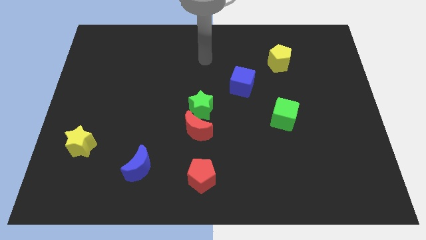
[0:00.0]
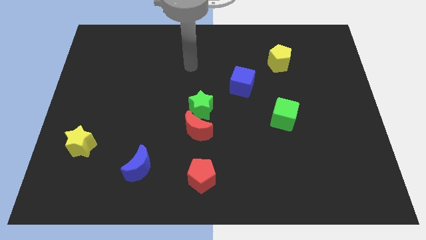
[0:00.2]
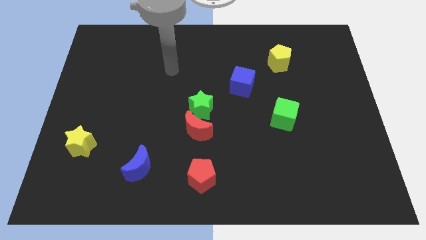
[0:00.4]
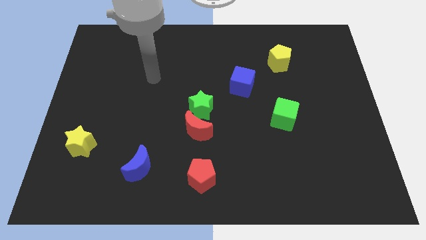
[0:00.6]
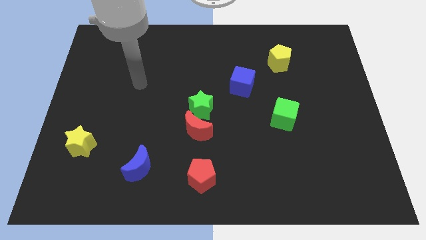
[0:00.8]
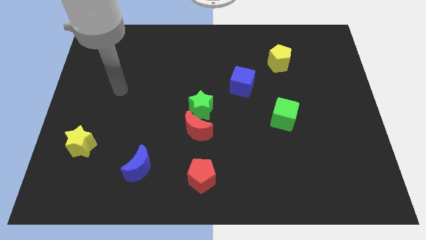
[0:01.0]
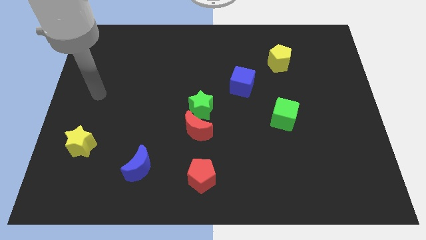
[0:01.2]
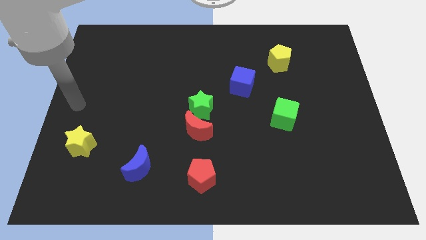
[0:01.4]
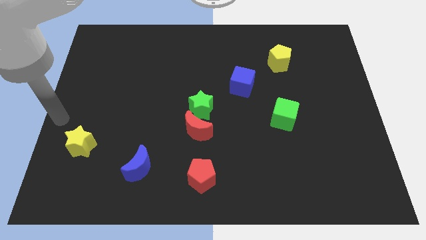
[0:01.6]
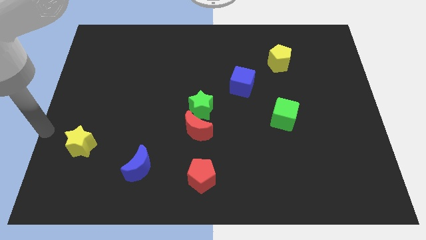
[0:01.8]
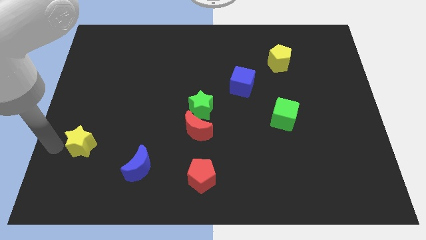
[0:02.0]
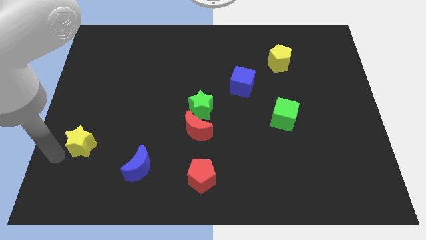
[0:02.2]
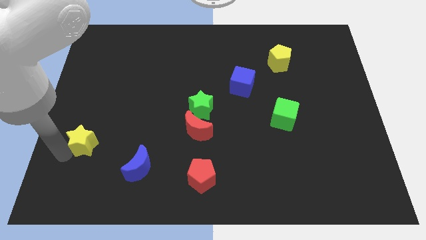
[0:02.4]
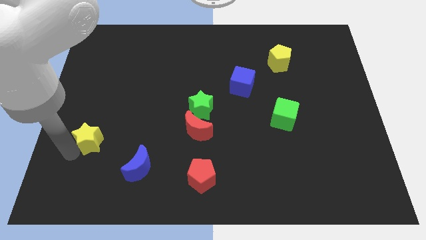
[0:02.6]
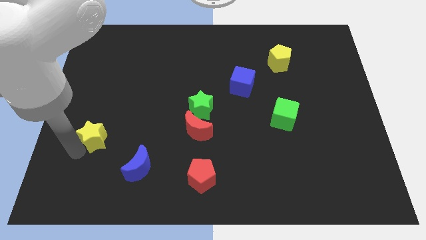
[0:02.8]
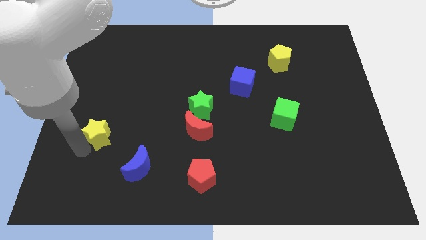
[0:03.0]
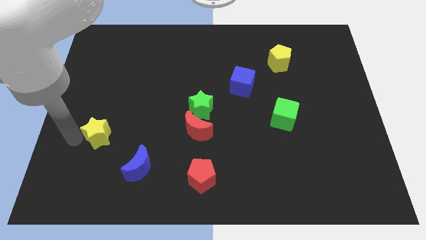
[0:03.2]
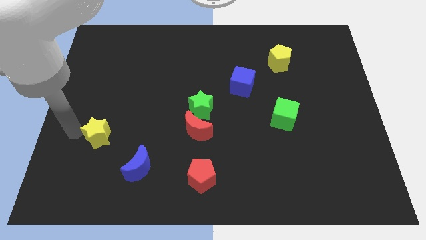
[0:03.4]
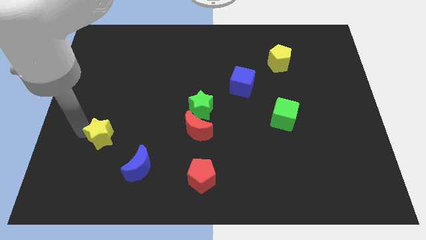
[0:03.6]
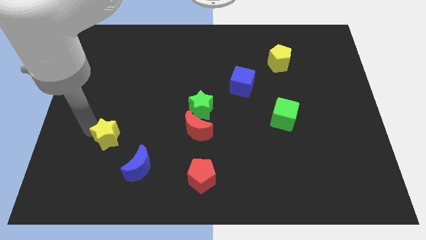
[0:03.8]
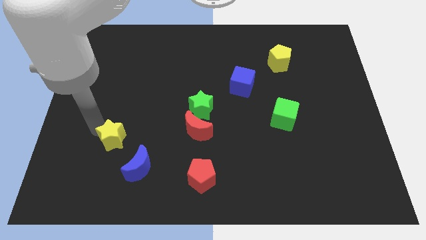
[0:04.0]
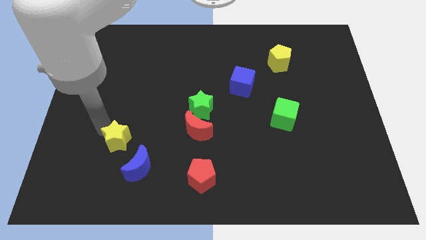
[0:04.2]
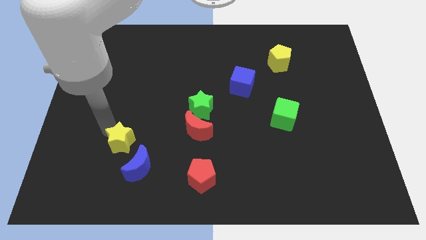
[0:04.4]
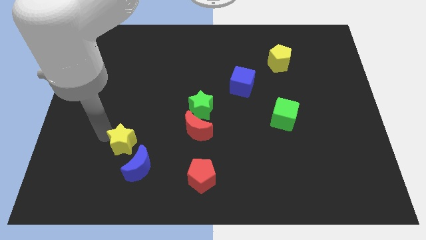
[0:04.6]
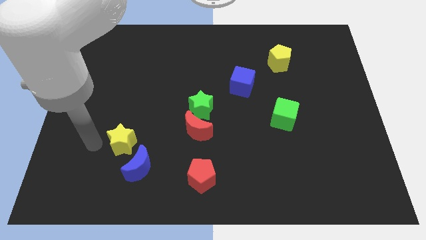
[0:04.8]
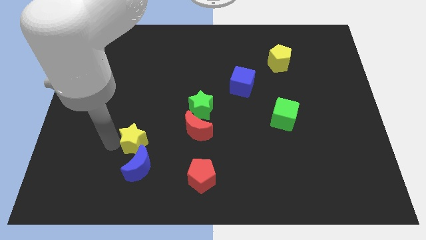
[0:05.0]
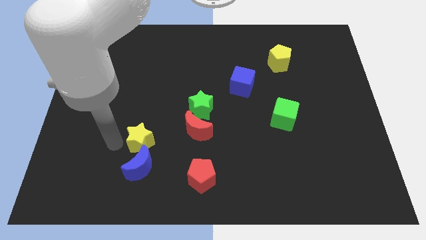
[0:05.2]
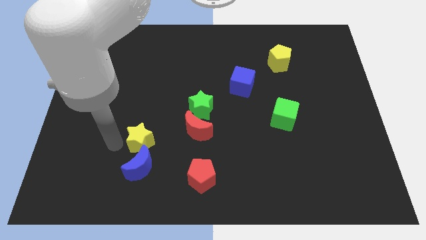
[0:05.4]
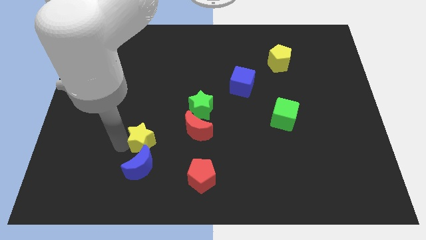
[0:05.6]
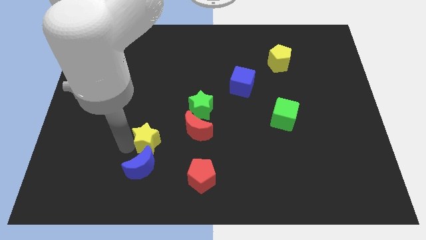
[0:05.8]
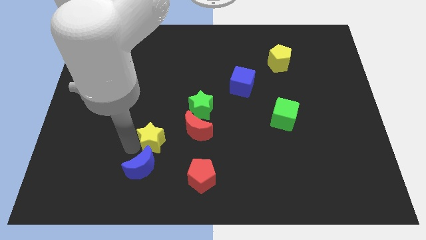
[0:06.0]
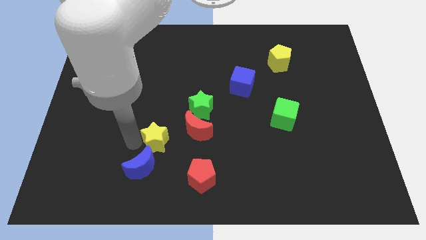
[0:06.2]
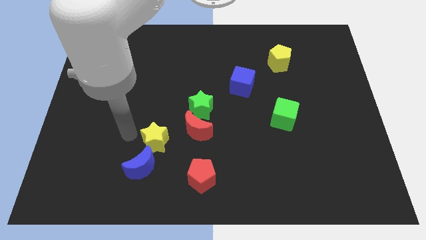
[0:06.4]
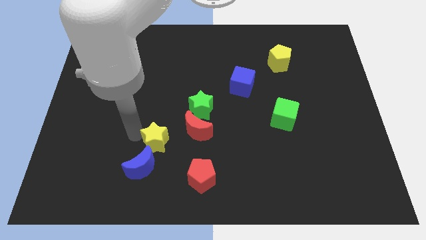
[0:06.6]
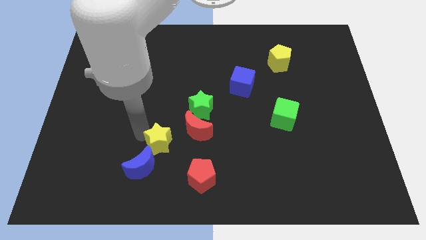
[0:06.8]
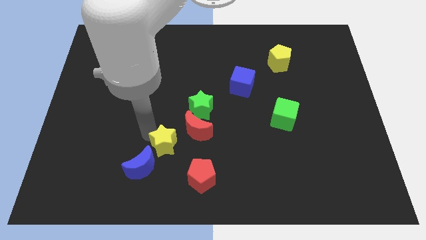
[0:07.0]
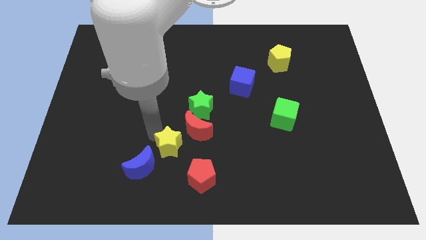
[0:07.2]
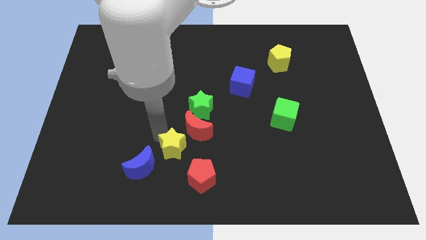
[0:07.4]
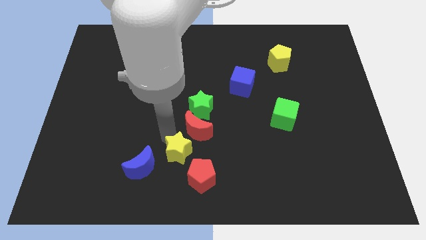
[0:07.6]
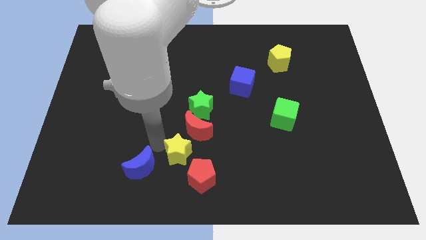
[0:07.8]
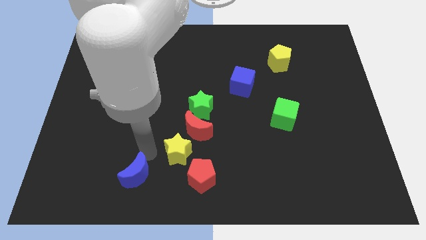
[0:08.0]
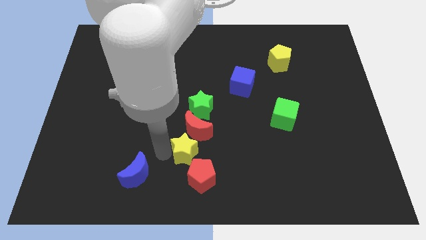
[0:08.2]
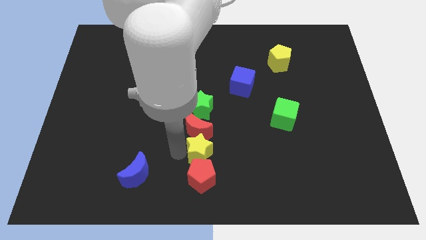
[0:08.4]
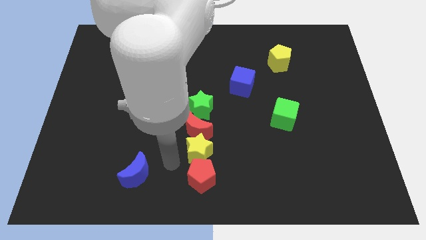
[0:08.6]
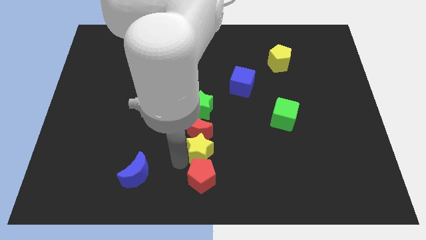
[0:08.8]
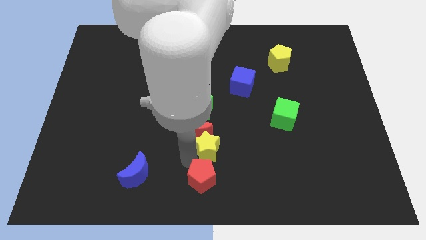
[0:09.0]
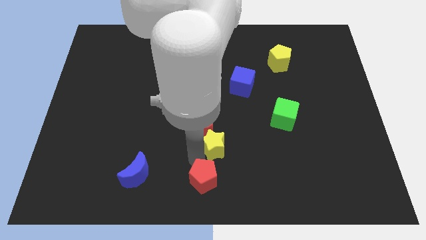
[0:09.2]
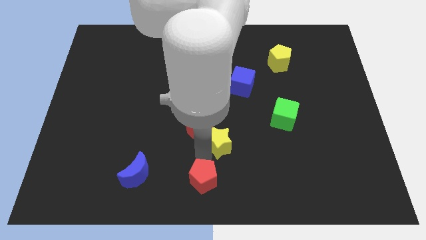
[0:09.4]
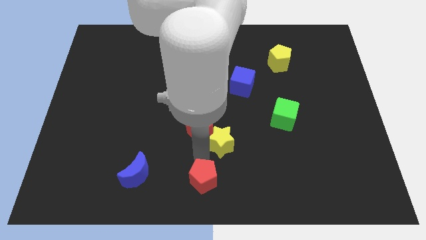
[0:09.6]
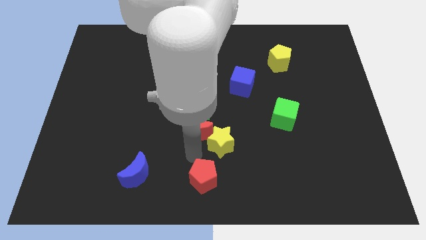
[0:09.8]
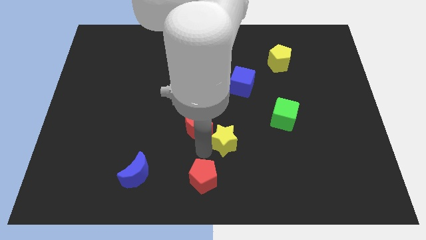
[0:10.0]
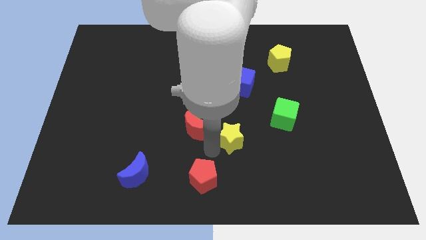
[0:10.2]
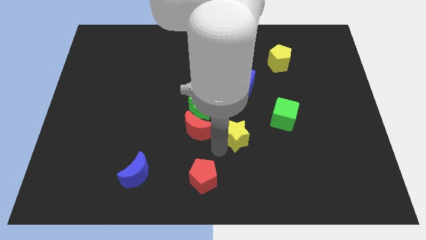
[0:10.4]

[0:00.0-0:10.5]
put the yellow star to the bottom side of the blue cube

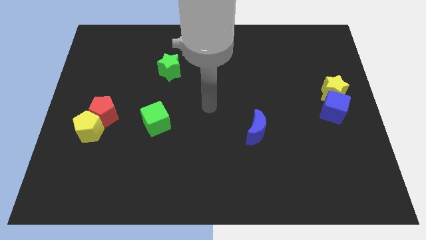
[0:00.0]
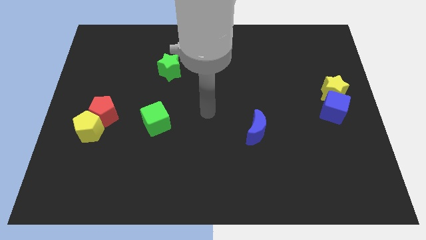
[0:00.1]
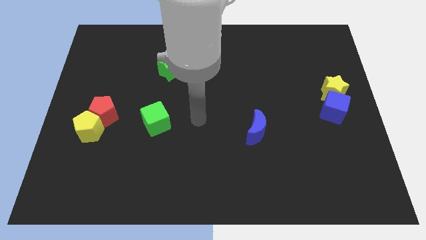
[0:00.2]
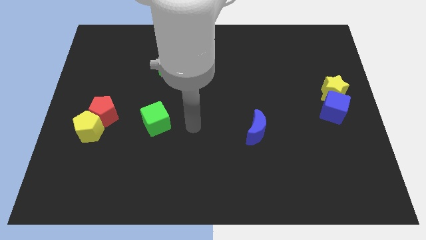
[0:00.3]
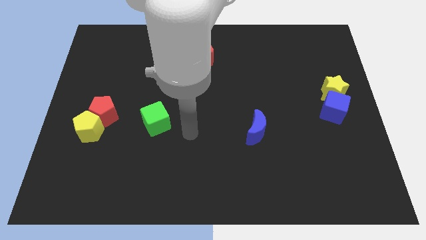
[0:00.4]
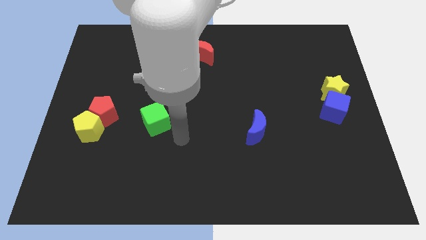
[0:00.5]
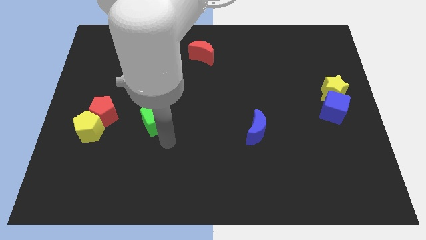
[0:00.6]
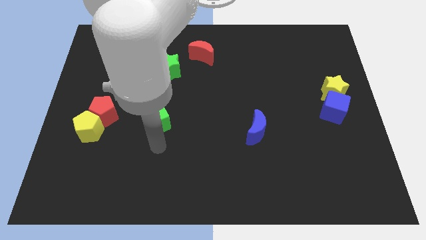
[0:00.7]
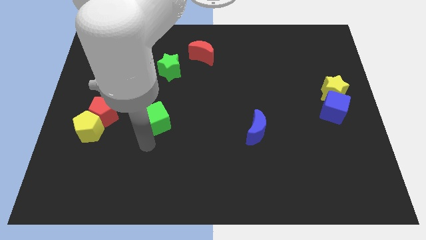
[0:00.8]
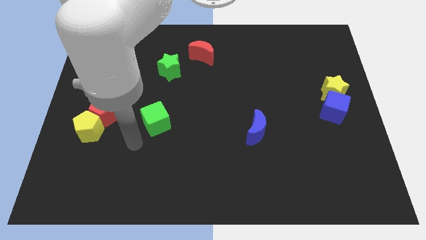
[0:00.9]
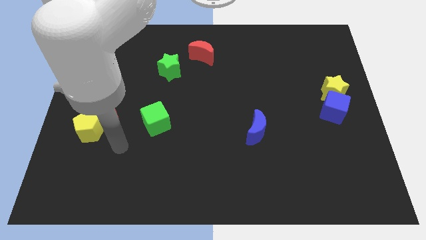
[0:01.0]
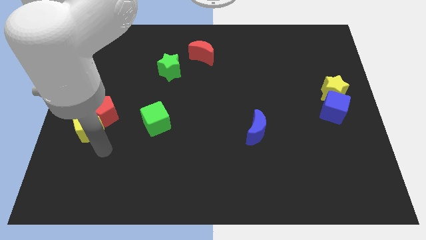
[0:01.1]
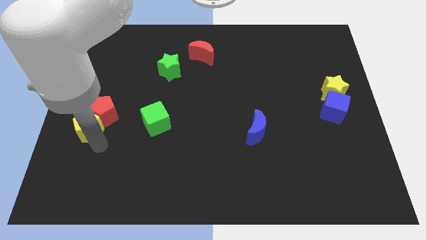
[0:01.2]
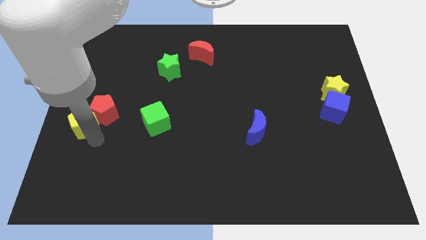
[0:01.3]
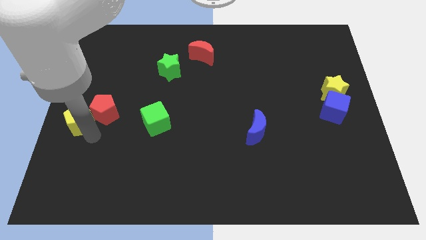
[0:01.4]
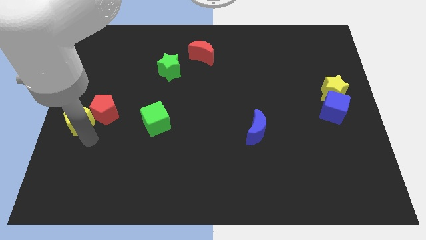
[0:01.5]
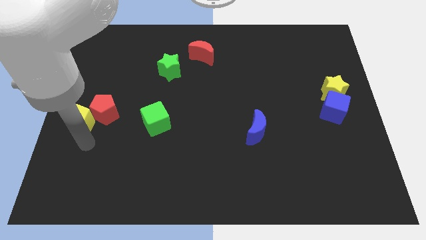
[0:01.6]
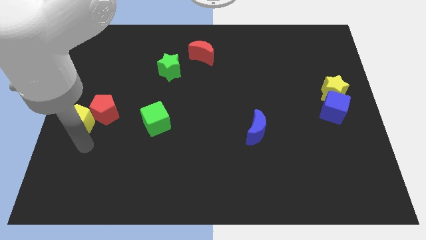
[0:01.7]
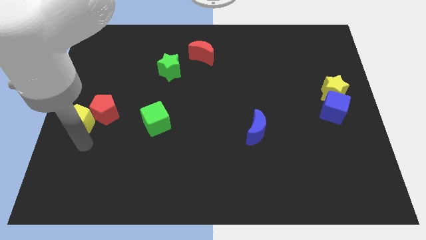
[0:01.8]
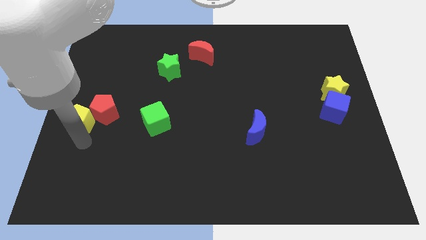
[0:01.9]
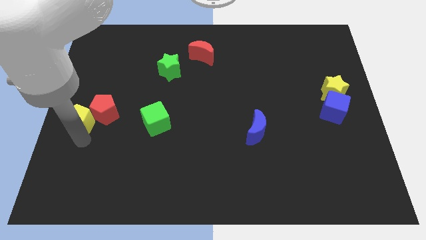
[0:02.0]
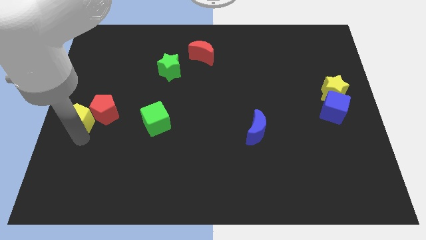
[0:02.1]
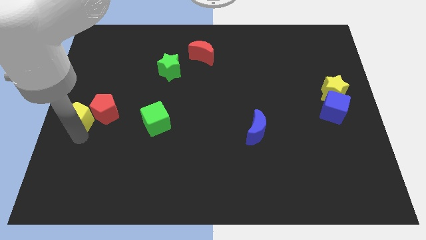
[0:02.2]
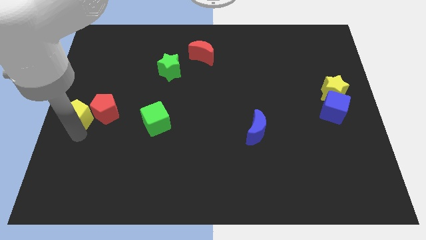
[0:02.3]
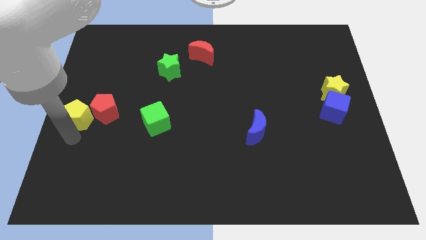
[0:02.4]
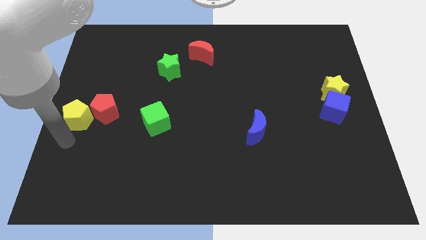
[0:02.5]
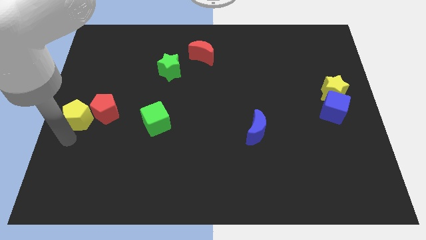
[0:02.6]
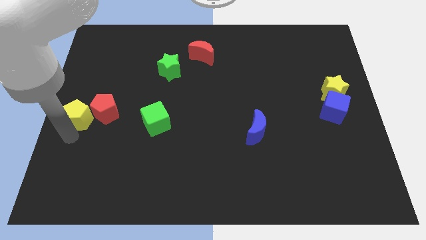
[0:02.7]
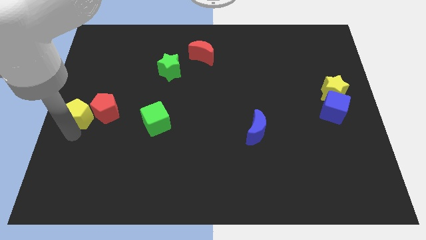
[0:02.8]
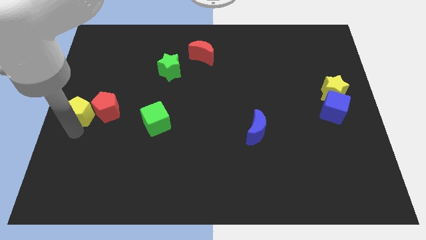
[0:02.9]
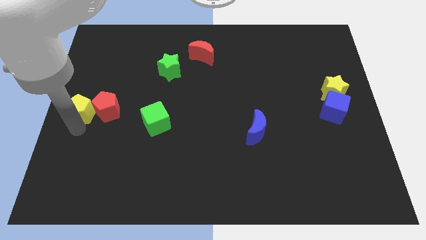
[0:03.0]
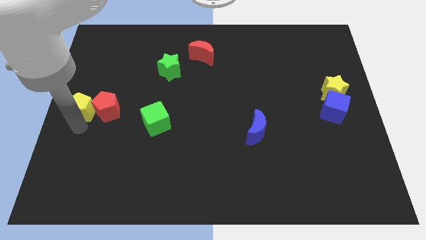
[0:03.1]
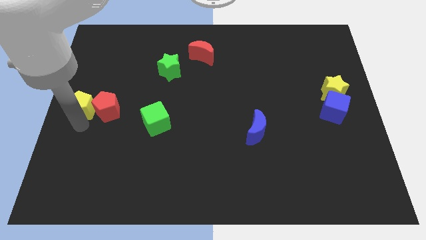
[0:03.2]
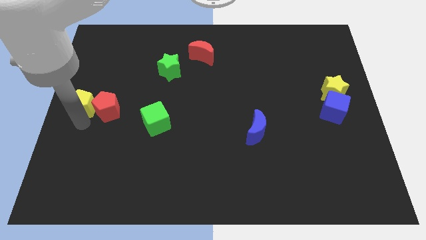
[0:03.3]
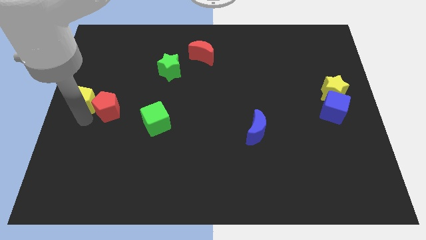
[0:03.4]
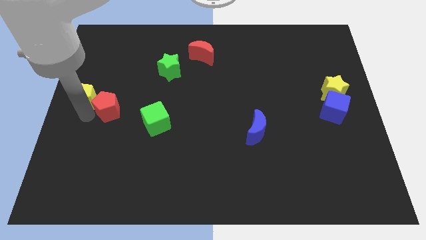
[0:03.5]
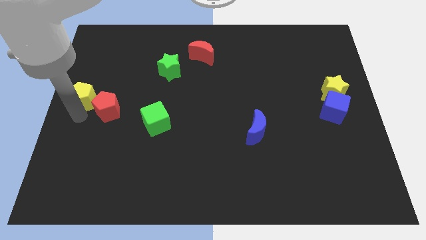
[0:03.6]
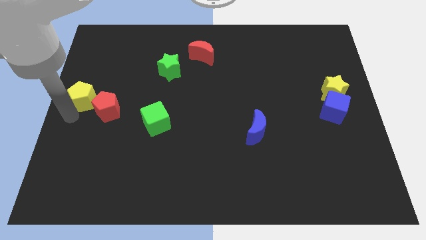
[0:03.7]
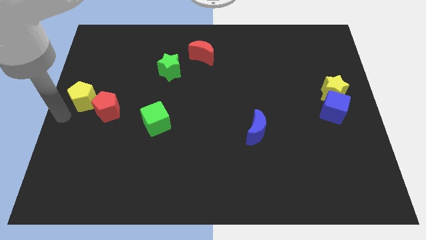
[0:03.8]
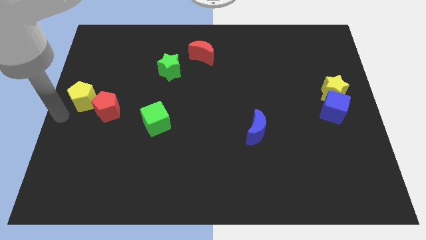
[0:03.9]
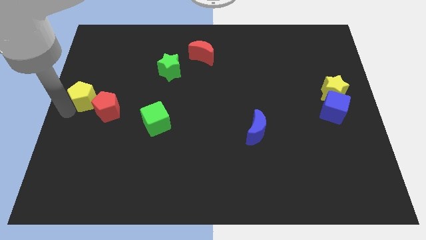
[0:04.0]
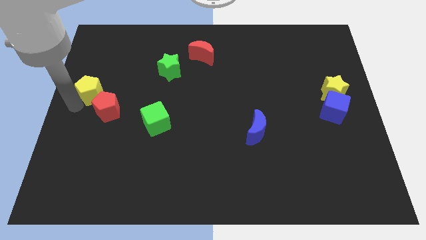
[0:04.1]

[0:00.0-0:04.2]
slide the yellow pentagon to the top side of the red pentagon
